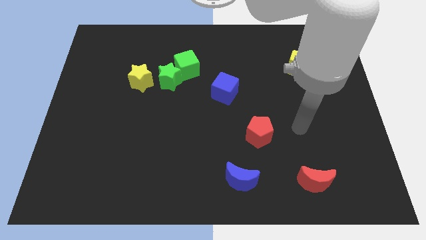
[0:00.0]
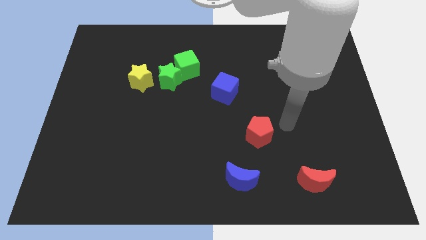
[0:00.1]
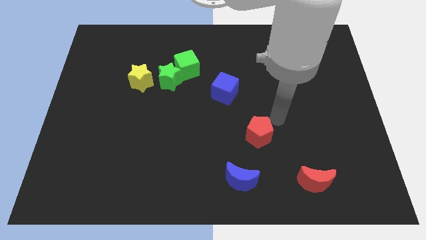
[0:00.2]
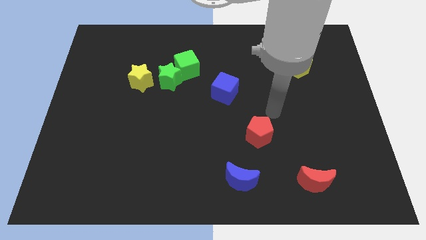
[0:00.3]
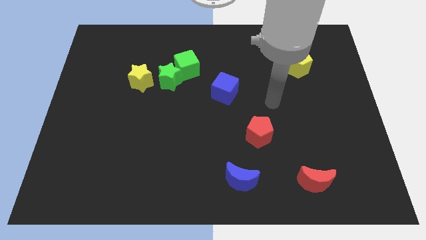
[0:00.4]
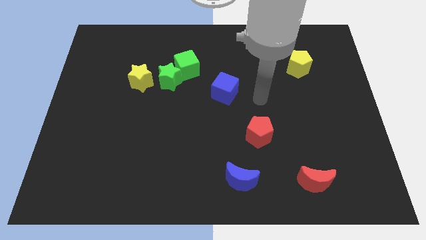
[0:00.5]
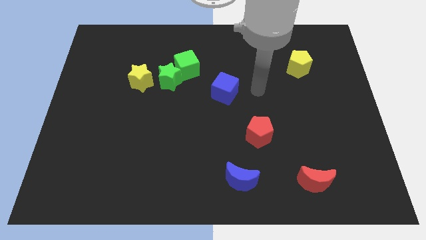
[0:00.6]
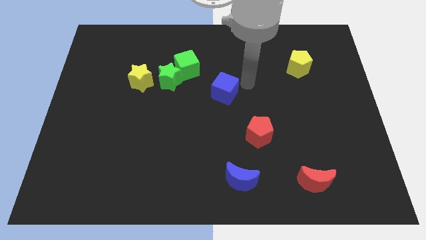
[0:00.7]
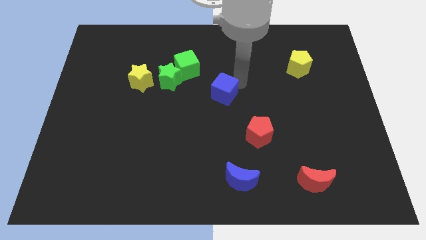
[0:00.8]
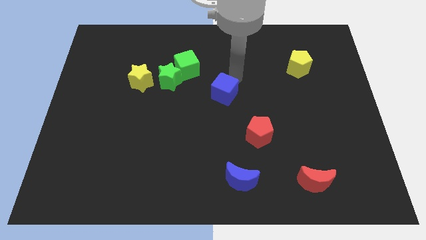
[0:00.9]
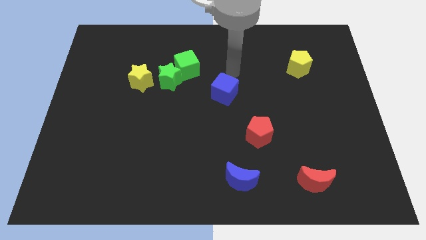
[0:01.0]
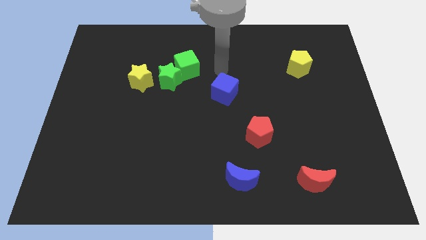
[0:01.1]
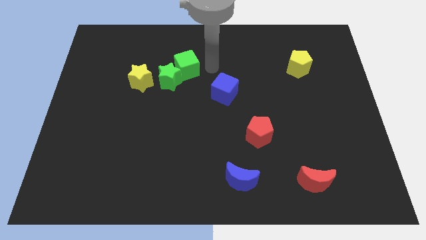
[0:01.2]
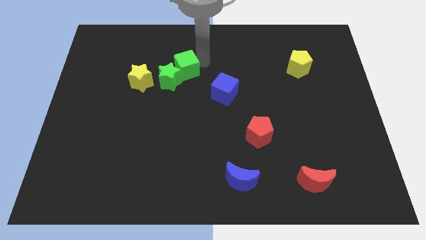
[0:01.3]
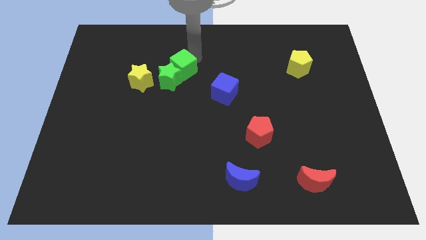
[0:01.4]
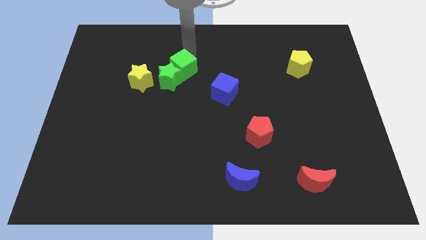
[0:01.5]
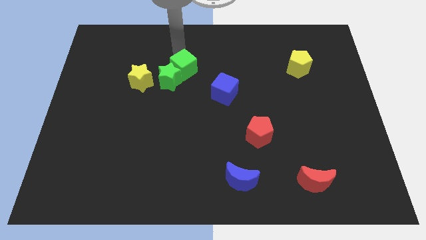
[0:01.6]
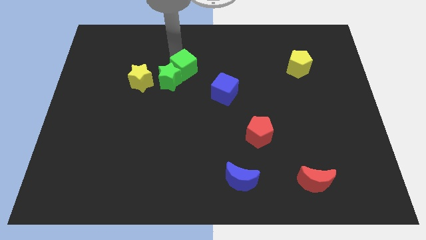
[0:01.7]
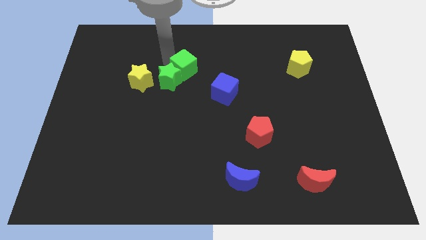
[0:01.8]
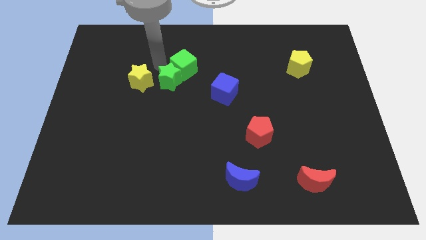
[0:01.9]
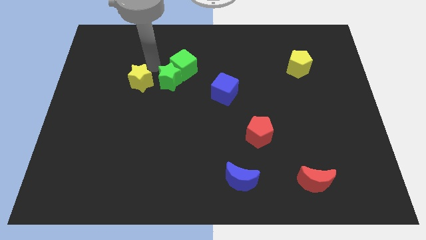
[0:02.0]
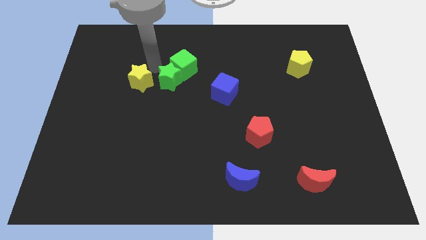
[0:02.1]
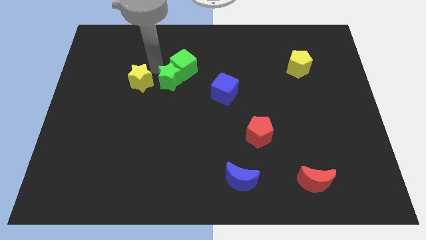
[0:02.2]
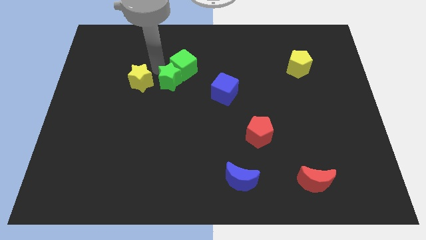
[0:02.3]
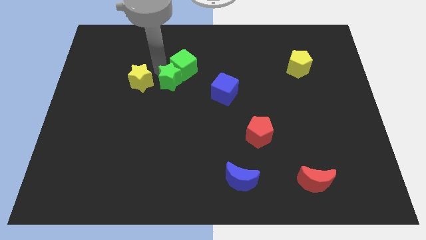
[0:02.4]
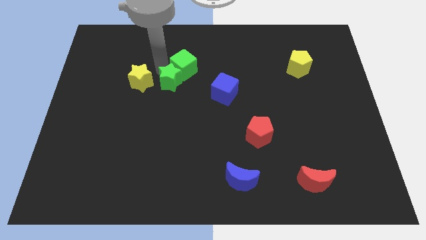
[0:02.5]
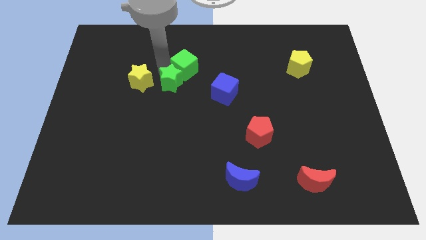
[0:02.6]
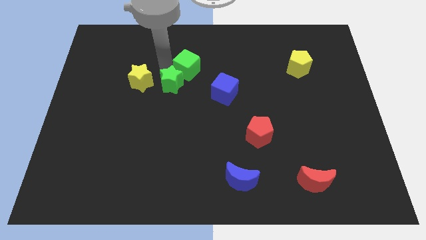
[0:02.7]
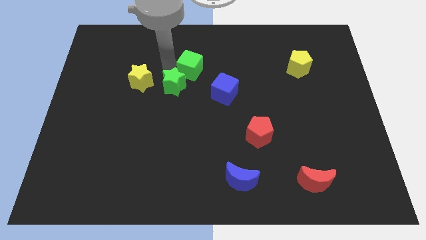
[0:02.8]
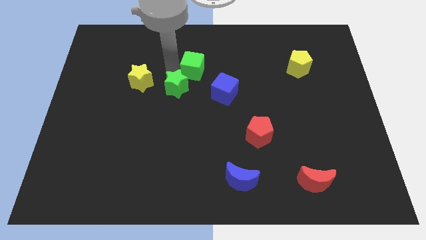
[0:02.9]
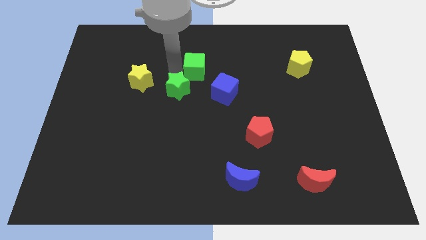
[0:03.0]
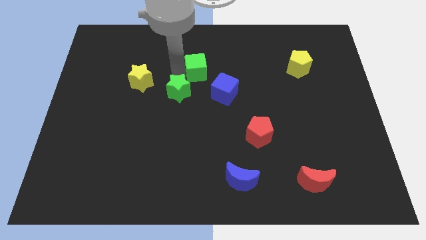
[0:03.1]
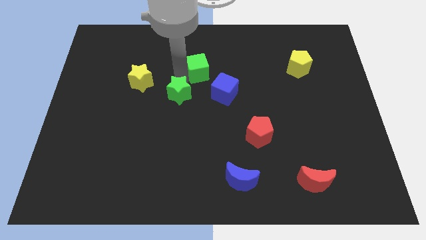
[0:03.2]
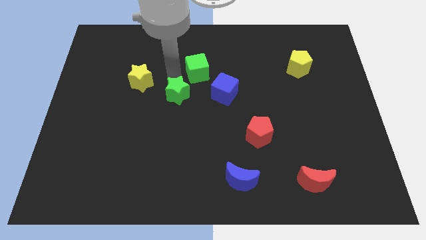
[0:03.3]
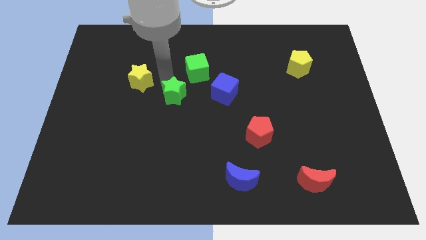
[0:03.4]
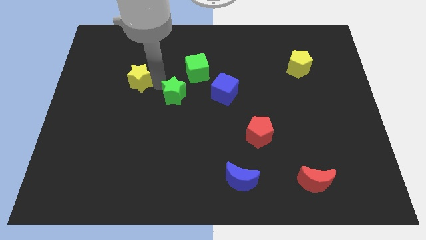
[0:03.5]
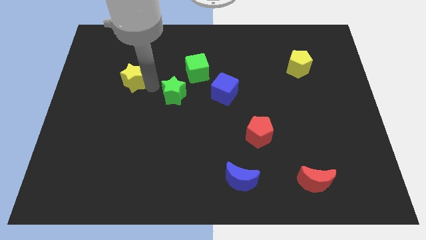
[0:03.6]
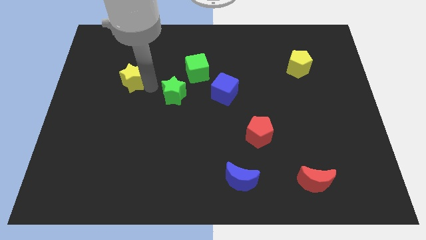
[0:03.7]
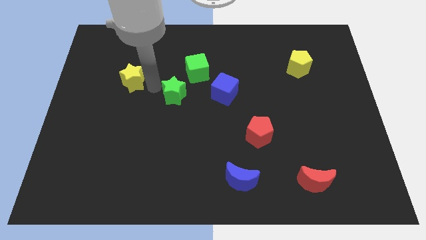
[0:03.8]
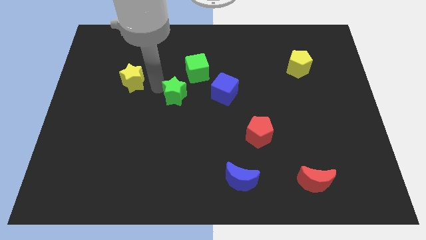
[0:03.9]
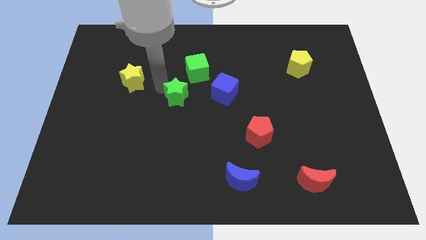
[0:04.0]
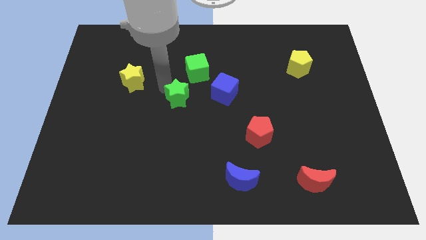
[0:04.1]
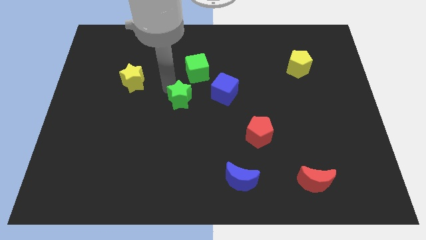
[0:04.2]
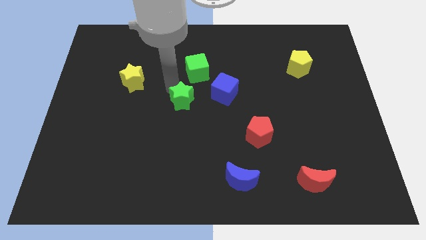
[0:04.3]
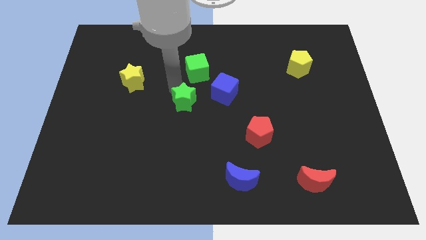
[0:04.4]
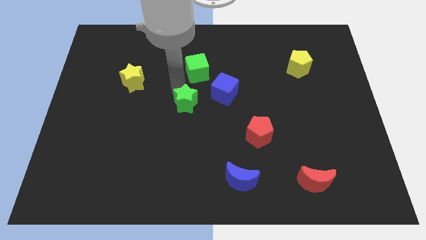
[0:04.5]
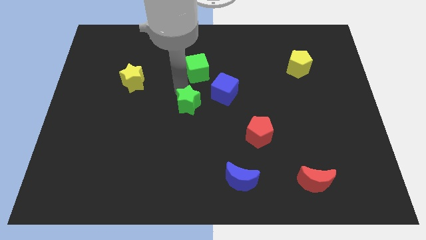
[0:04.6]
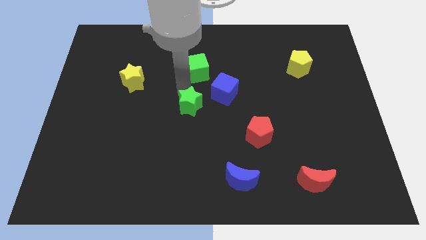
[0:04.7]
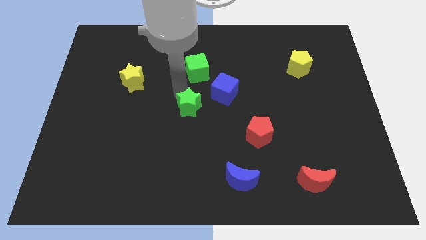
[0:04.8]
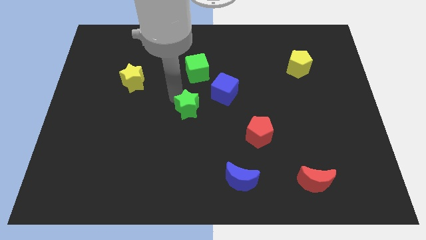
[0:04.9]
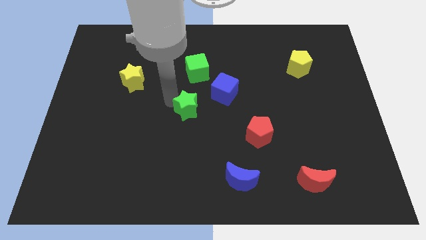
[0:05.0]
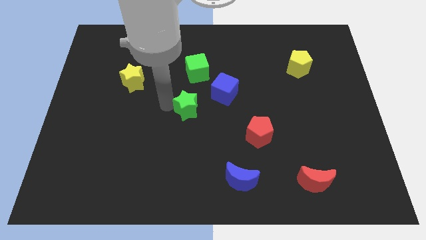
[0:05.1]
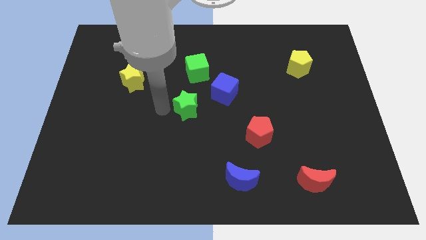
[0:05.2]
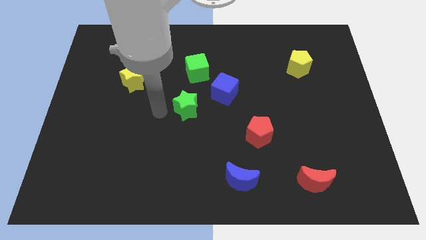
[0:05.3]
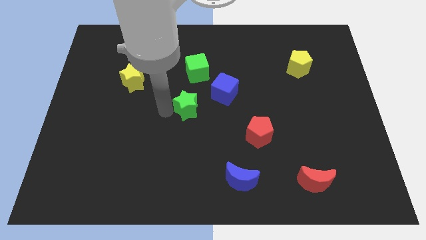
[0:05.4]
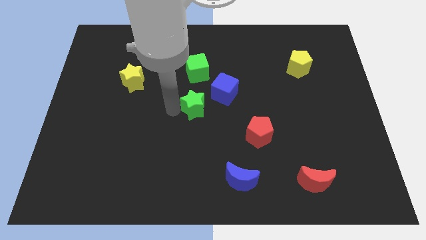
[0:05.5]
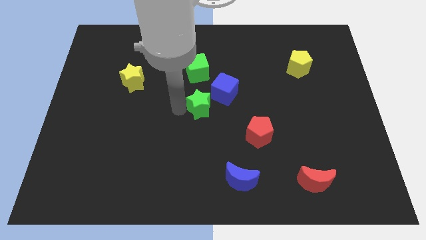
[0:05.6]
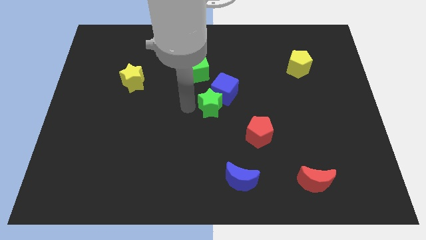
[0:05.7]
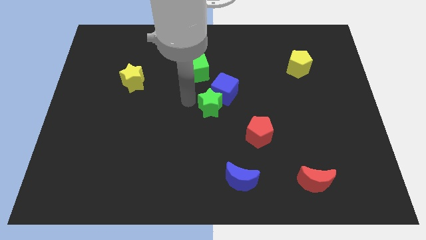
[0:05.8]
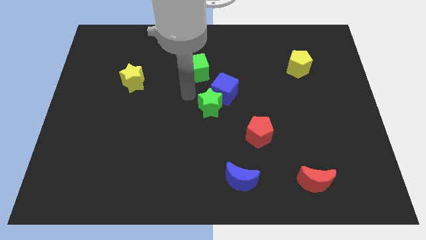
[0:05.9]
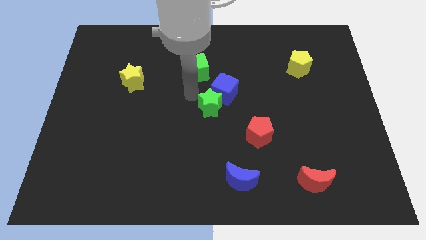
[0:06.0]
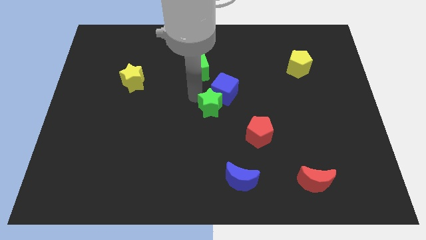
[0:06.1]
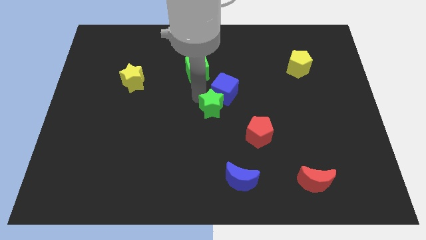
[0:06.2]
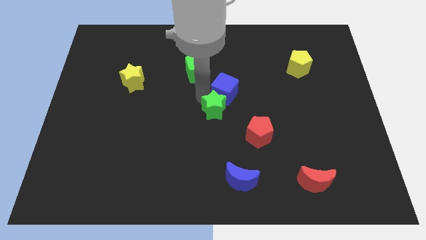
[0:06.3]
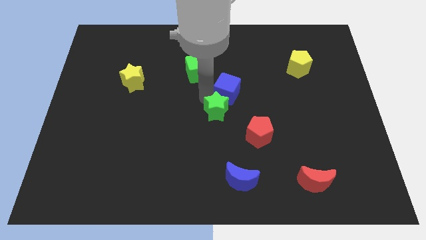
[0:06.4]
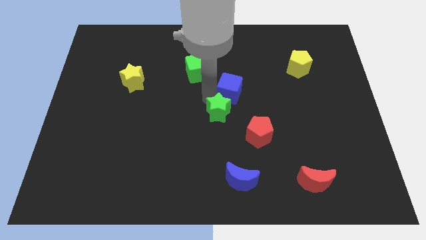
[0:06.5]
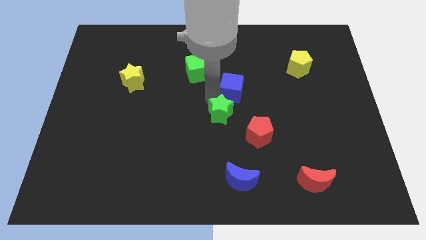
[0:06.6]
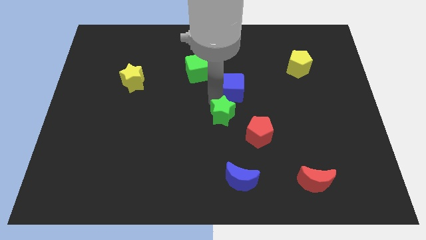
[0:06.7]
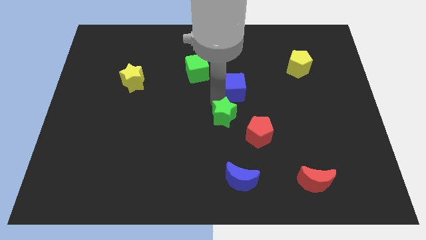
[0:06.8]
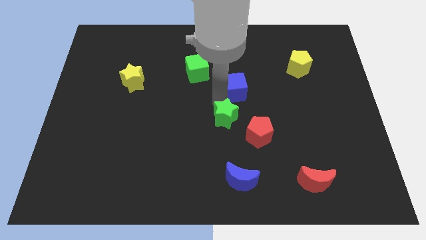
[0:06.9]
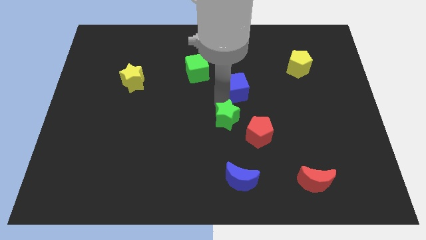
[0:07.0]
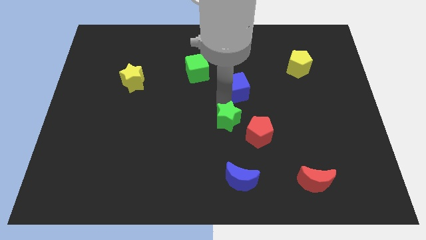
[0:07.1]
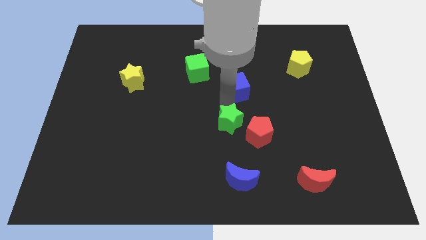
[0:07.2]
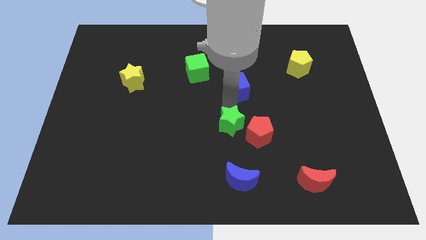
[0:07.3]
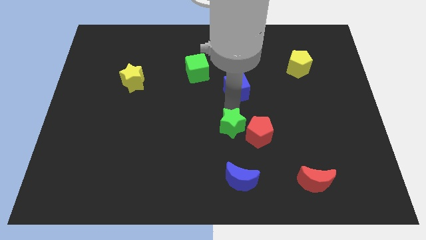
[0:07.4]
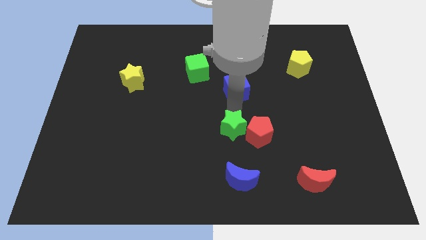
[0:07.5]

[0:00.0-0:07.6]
push the green star next to the red pentagon
